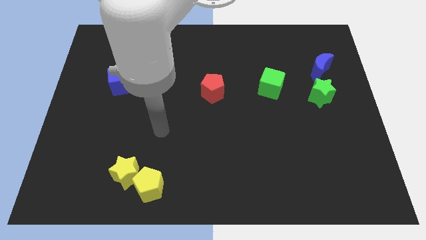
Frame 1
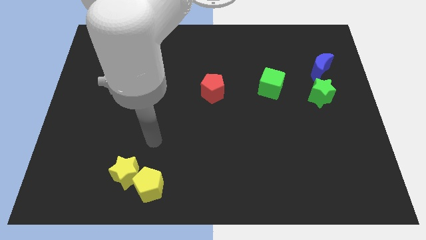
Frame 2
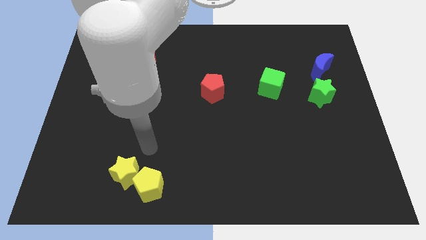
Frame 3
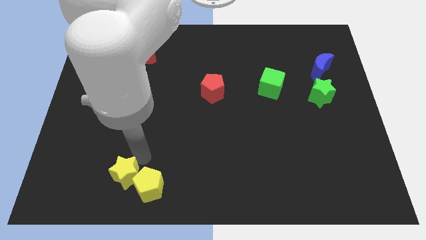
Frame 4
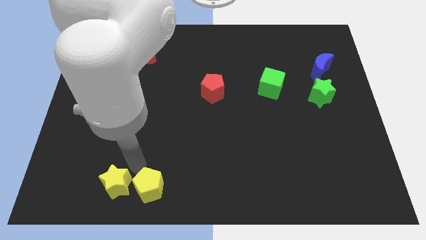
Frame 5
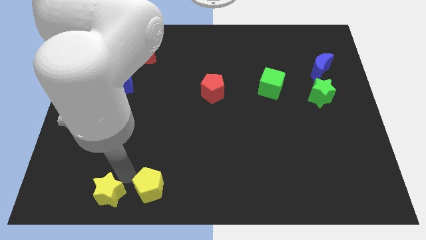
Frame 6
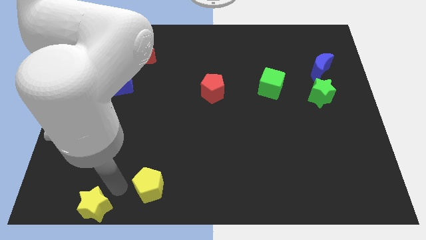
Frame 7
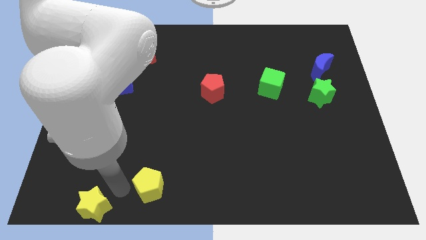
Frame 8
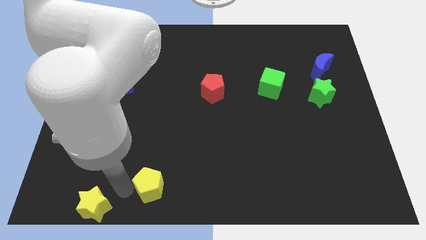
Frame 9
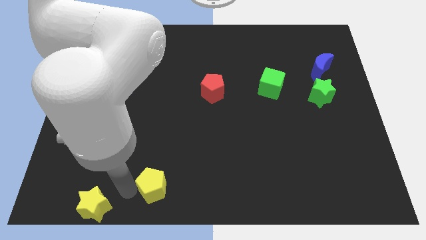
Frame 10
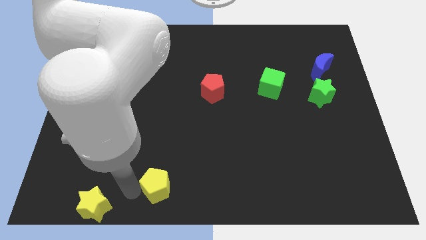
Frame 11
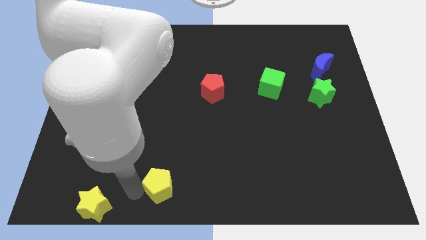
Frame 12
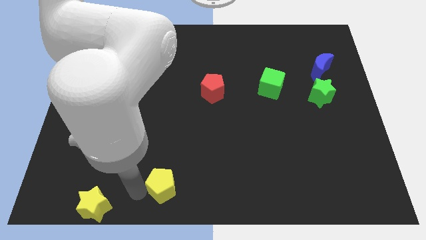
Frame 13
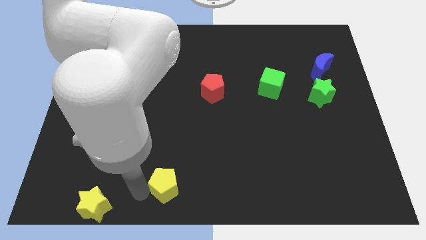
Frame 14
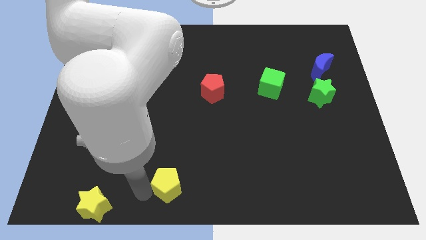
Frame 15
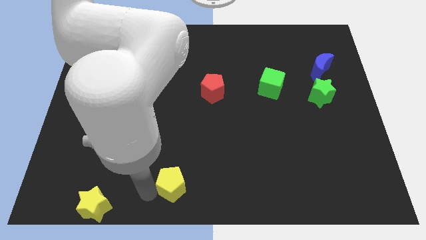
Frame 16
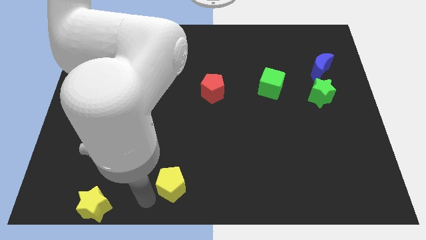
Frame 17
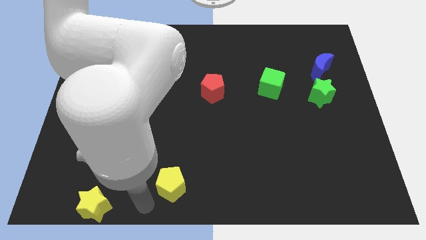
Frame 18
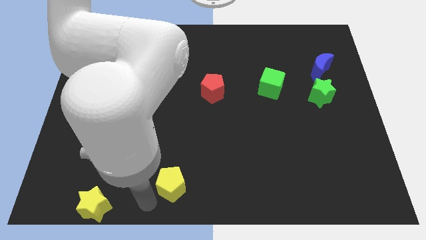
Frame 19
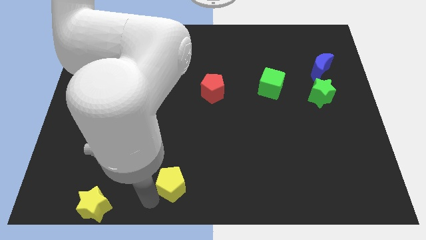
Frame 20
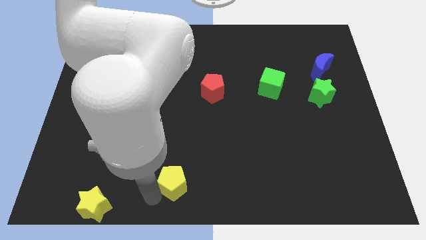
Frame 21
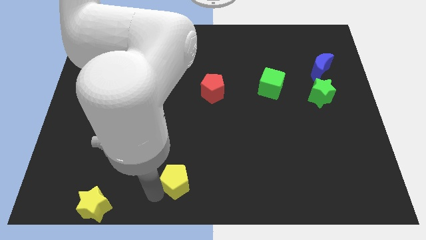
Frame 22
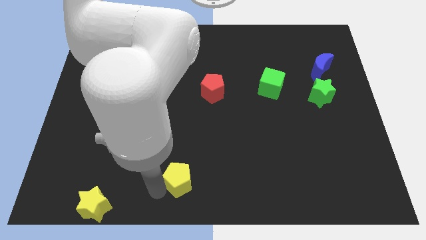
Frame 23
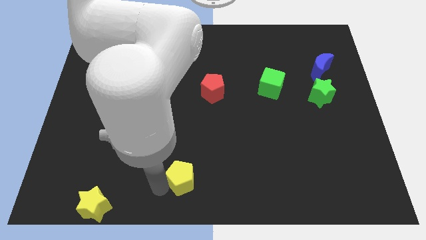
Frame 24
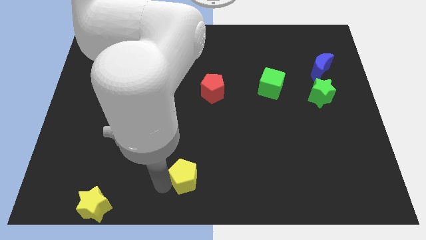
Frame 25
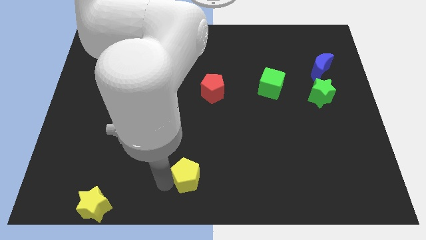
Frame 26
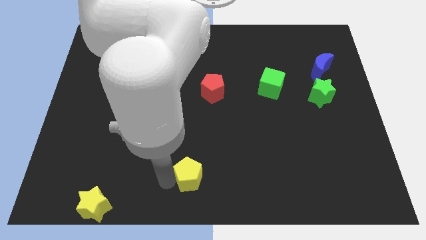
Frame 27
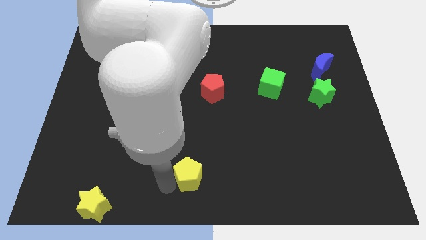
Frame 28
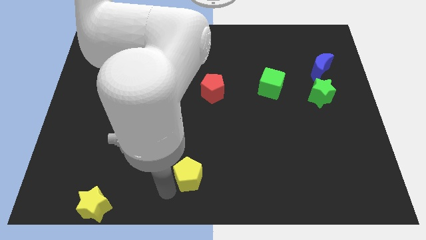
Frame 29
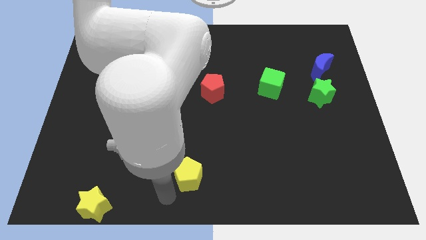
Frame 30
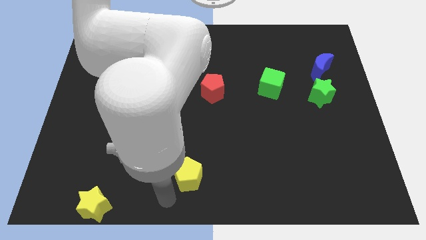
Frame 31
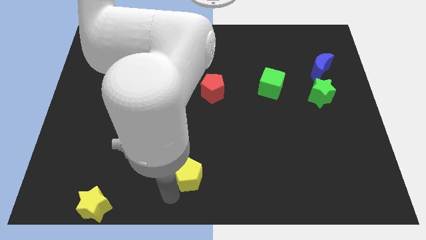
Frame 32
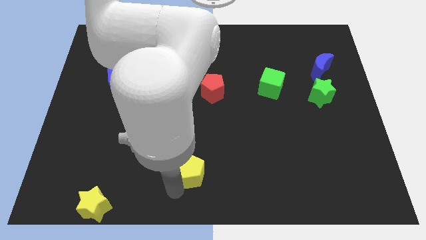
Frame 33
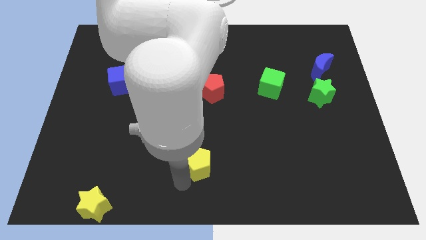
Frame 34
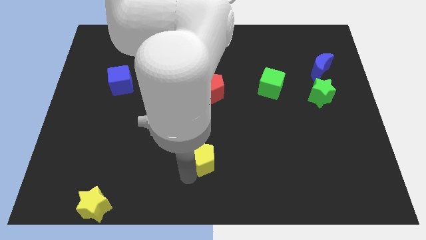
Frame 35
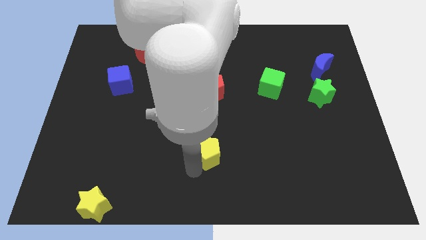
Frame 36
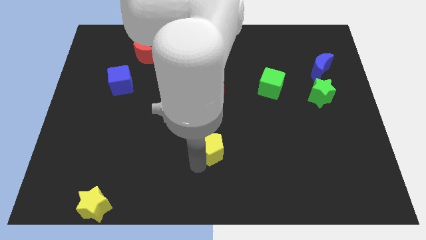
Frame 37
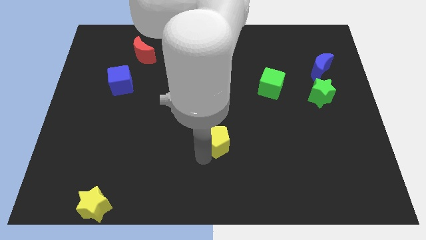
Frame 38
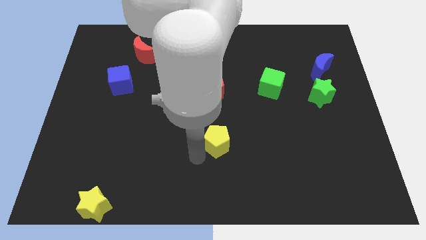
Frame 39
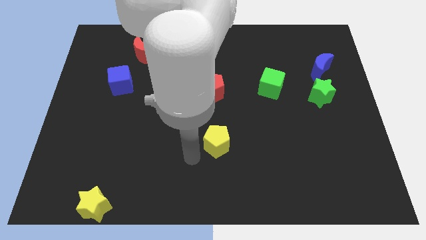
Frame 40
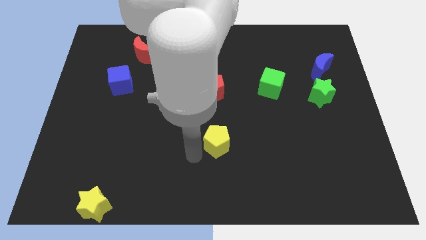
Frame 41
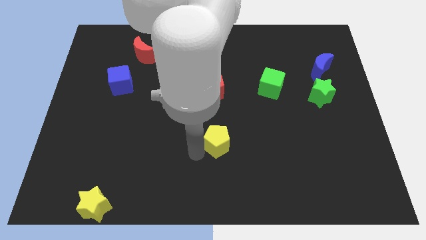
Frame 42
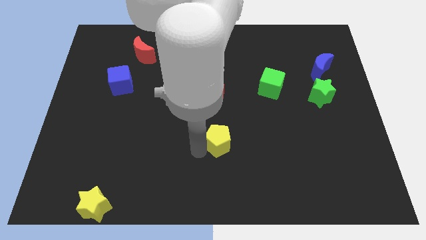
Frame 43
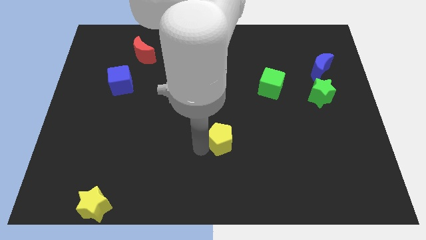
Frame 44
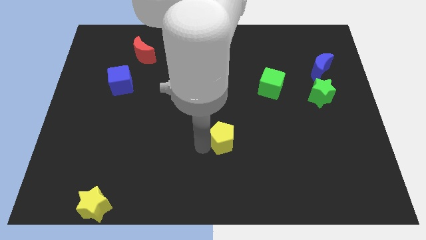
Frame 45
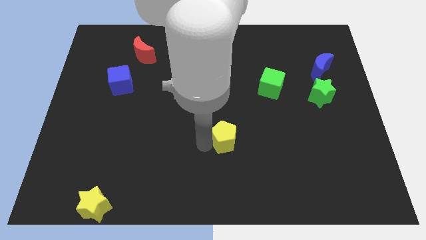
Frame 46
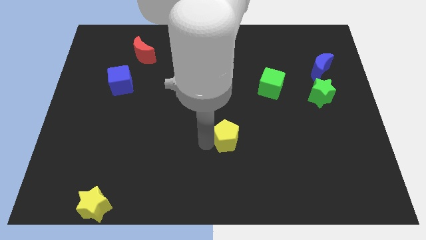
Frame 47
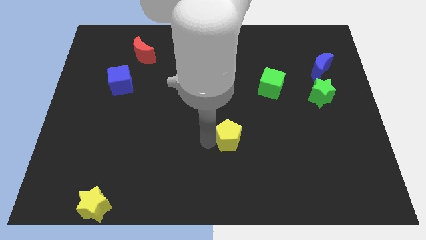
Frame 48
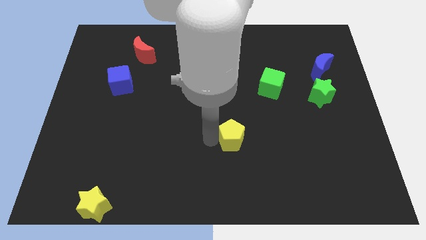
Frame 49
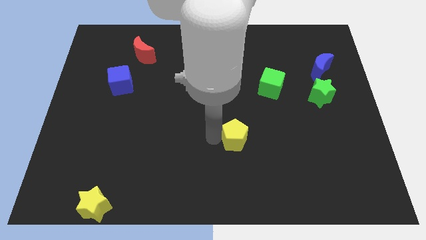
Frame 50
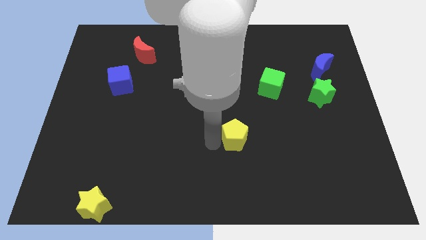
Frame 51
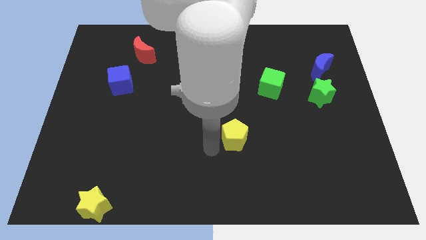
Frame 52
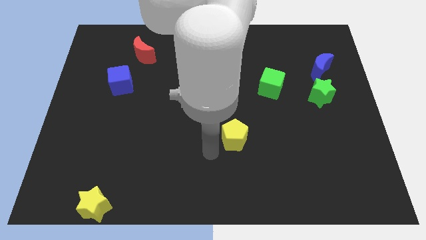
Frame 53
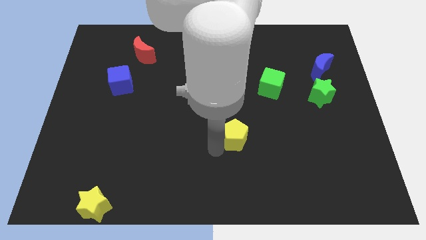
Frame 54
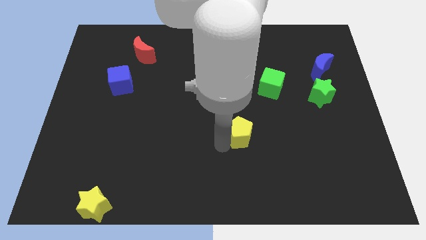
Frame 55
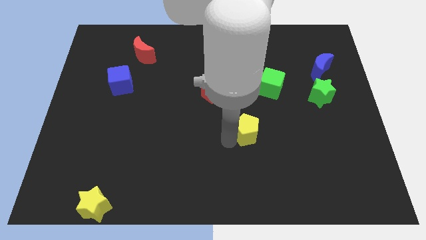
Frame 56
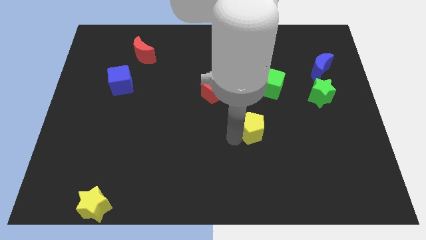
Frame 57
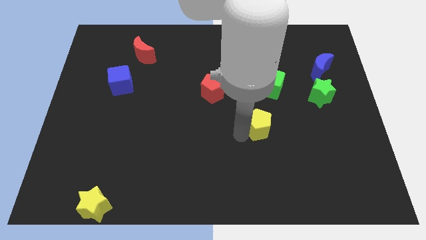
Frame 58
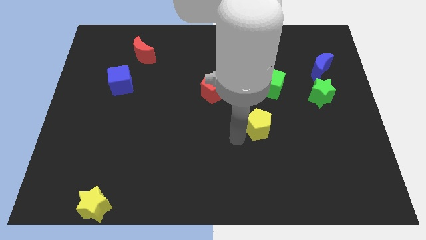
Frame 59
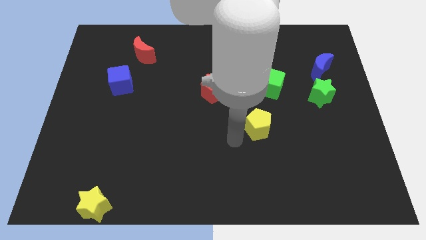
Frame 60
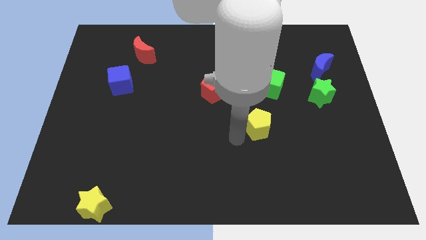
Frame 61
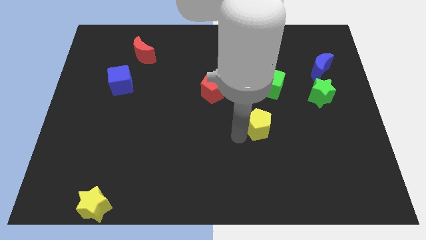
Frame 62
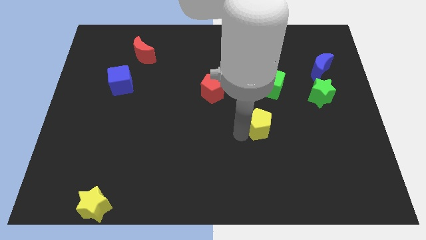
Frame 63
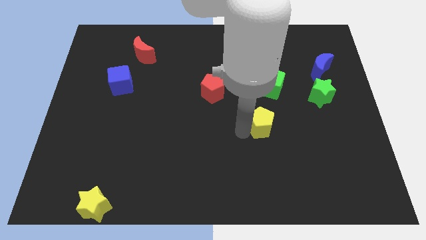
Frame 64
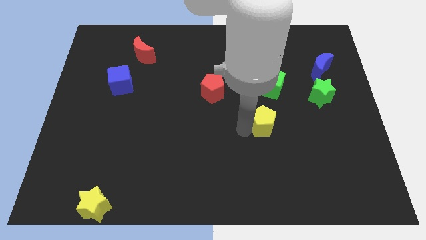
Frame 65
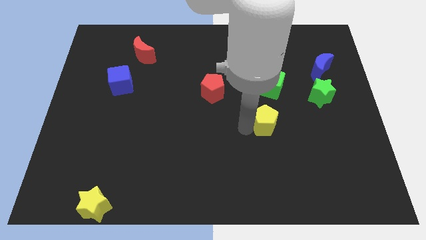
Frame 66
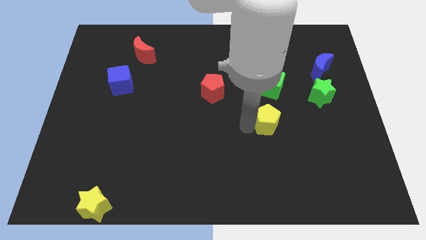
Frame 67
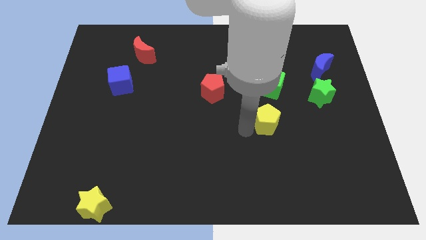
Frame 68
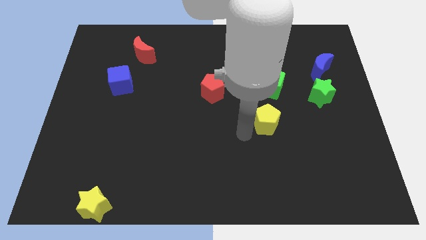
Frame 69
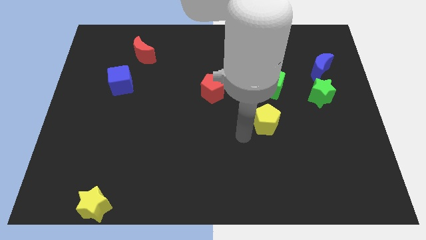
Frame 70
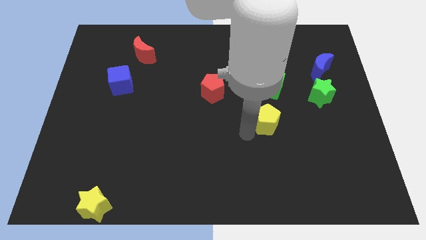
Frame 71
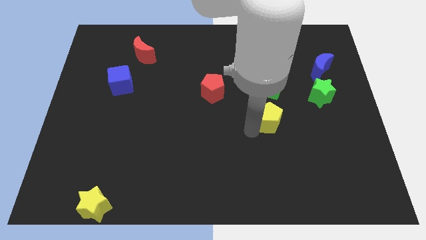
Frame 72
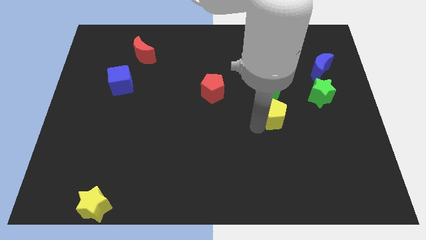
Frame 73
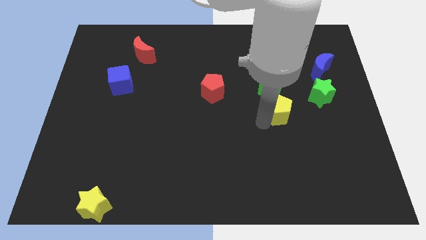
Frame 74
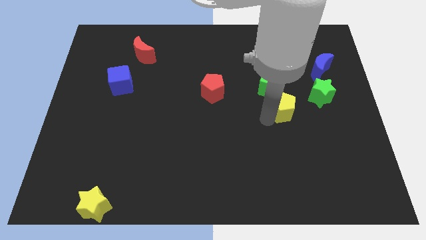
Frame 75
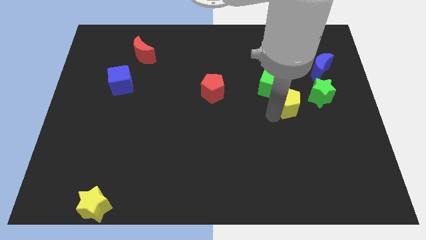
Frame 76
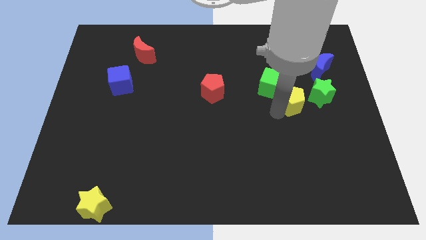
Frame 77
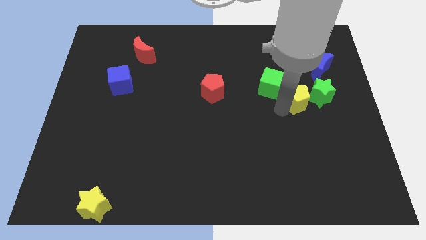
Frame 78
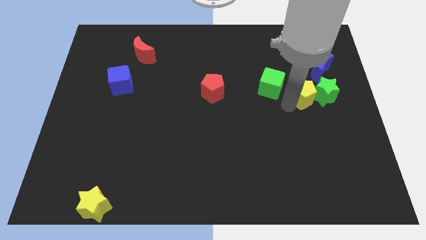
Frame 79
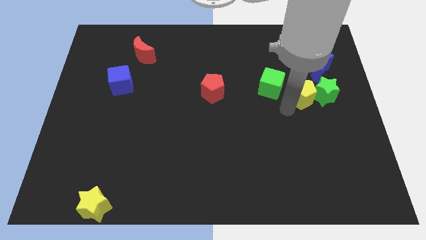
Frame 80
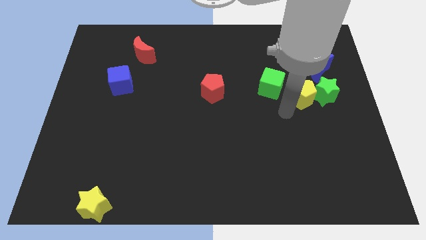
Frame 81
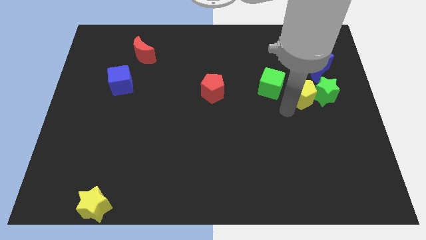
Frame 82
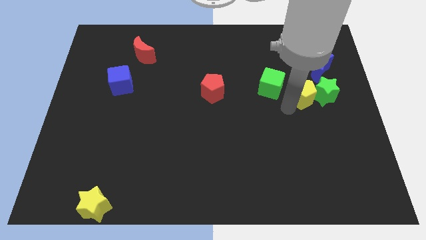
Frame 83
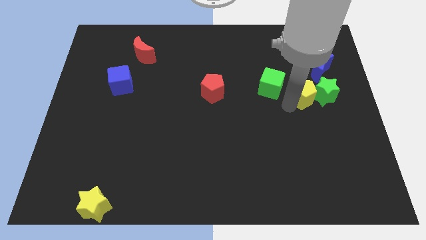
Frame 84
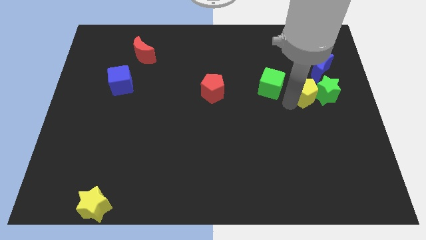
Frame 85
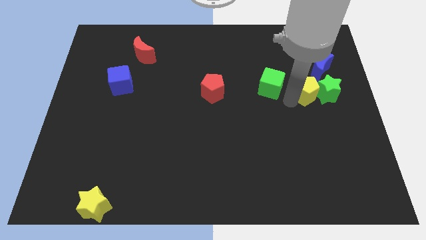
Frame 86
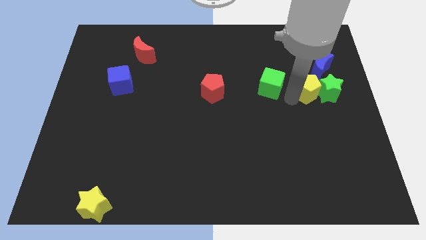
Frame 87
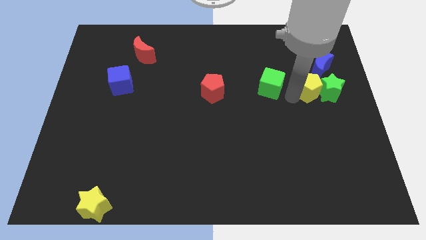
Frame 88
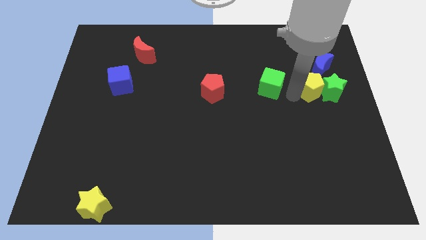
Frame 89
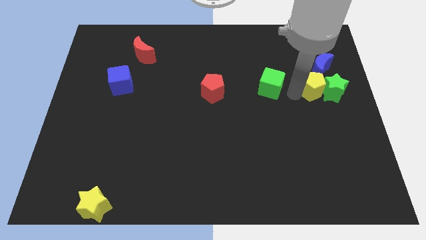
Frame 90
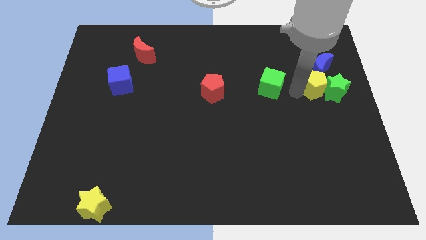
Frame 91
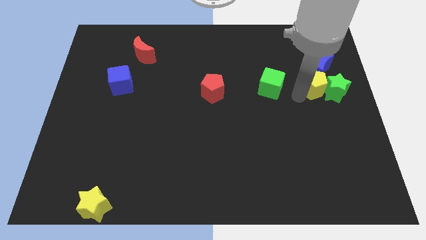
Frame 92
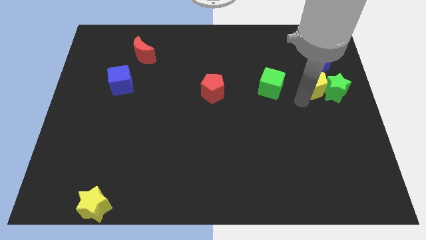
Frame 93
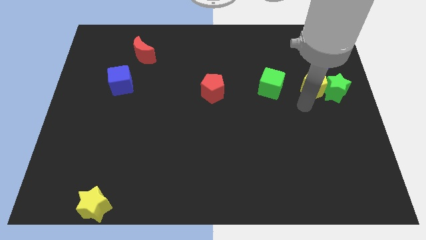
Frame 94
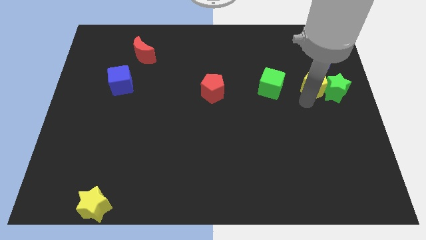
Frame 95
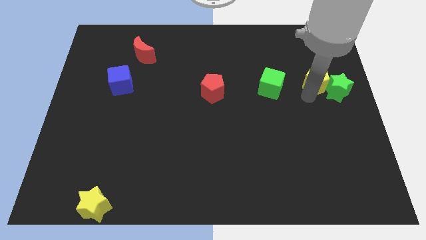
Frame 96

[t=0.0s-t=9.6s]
push the yellow pentagon close to the blue moon
